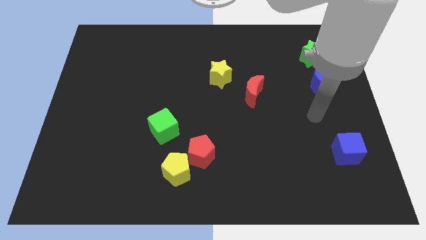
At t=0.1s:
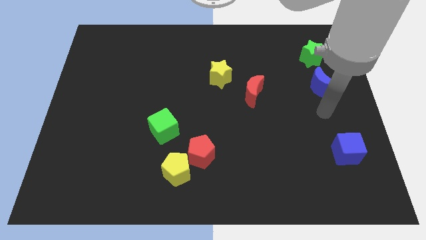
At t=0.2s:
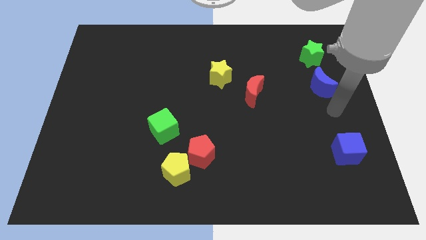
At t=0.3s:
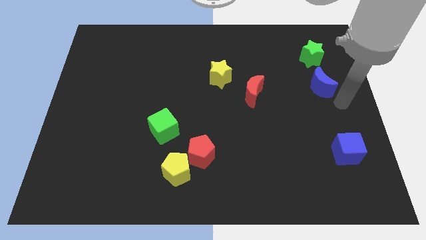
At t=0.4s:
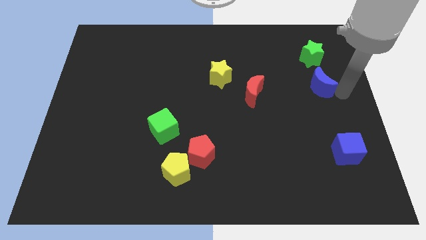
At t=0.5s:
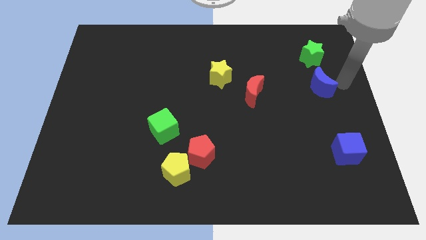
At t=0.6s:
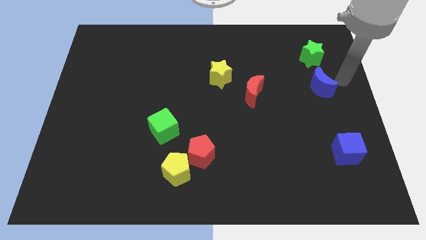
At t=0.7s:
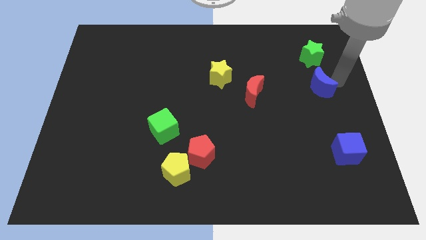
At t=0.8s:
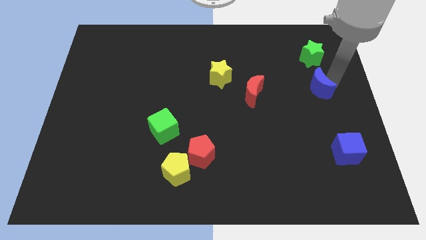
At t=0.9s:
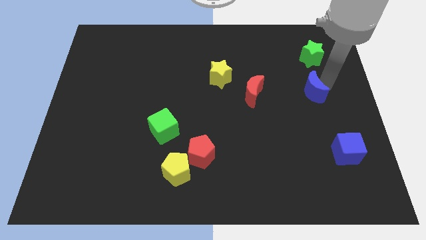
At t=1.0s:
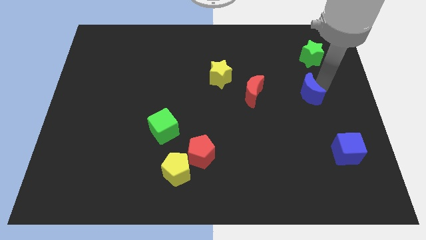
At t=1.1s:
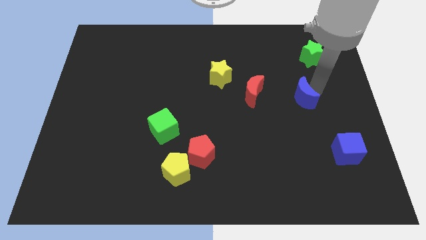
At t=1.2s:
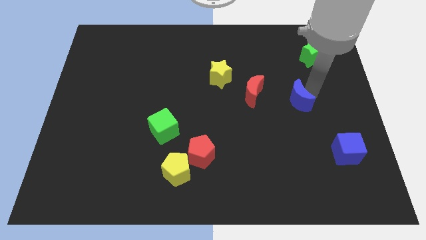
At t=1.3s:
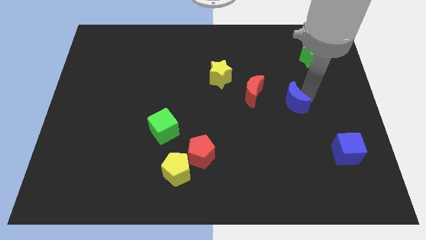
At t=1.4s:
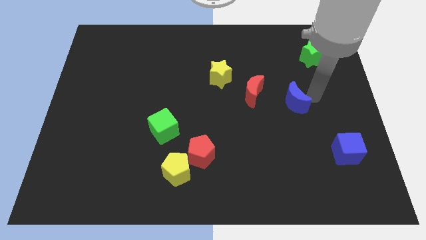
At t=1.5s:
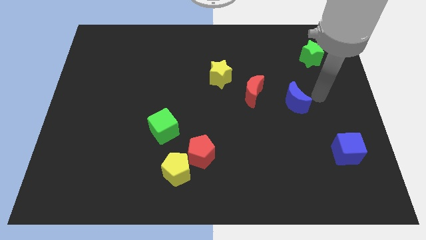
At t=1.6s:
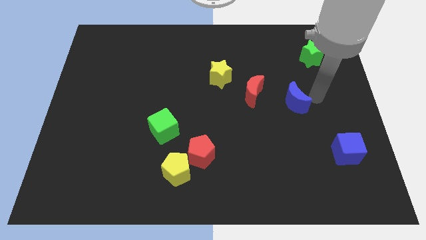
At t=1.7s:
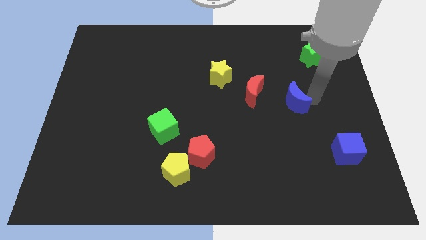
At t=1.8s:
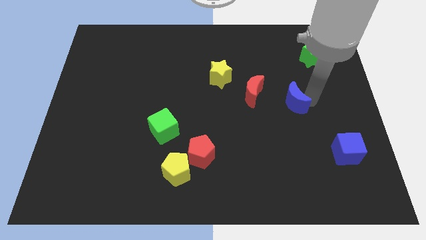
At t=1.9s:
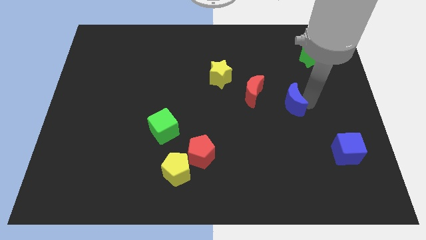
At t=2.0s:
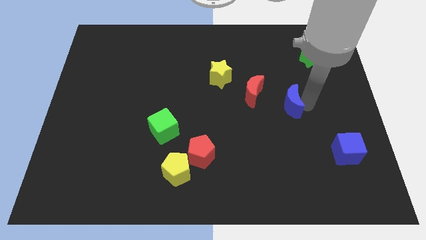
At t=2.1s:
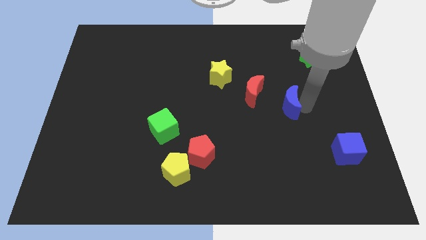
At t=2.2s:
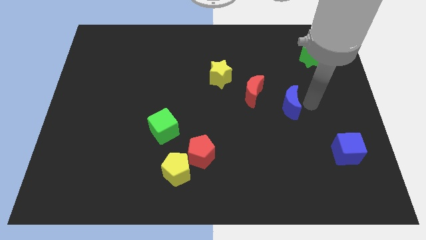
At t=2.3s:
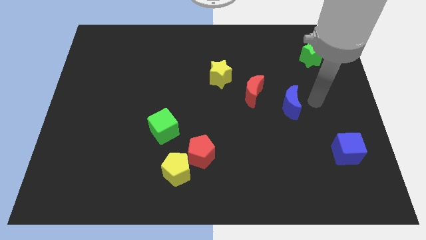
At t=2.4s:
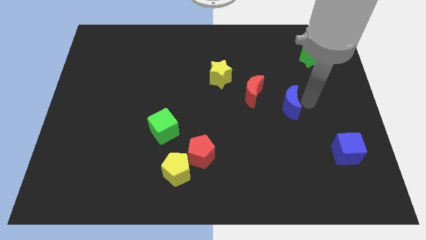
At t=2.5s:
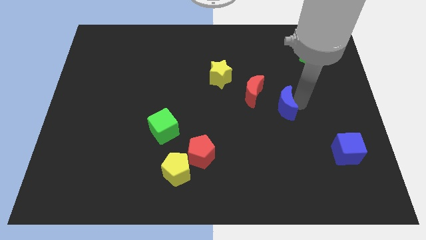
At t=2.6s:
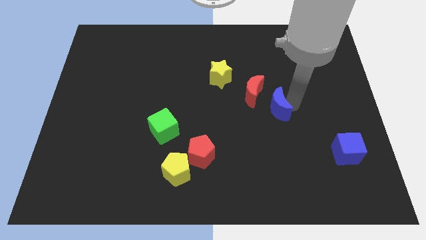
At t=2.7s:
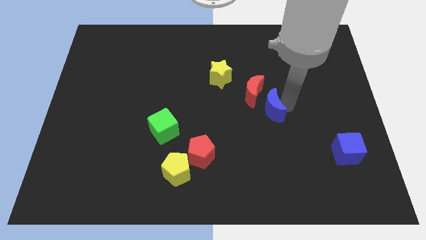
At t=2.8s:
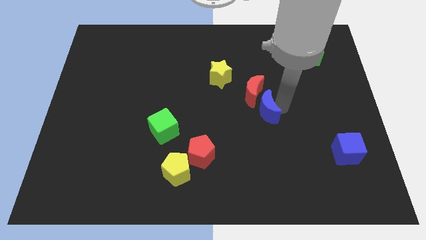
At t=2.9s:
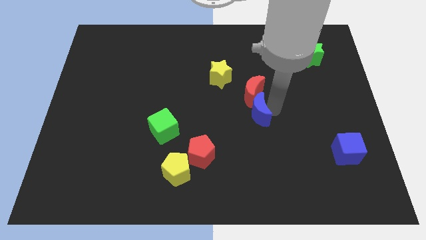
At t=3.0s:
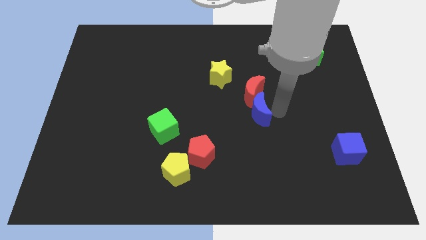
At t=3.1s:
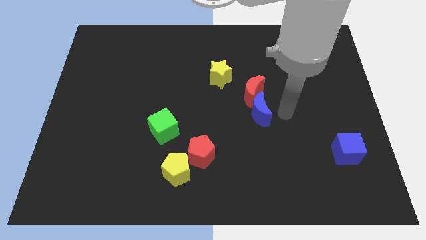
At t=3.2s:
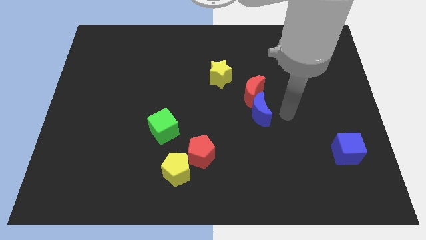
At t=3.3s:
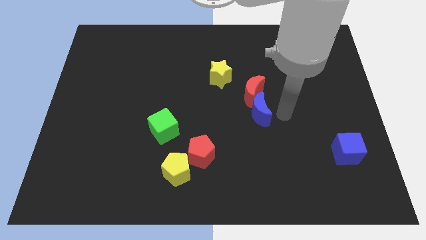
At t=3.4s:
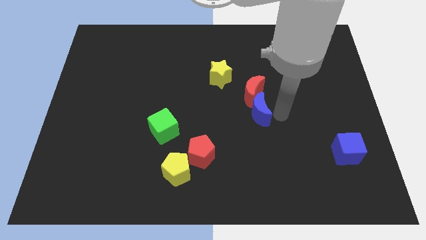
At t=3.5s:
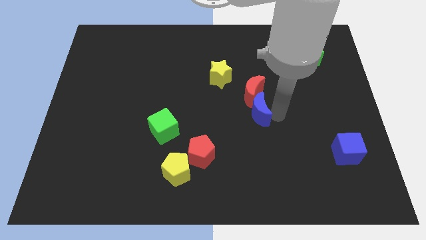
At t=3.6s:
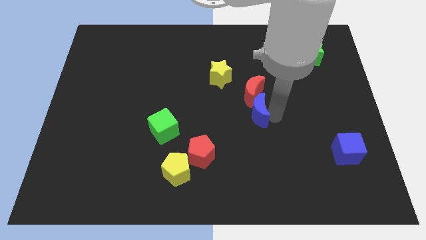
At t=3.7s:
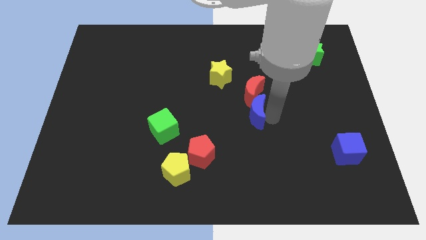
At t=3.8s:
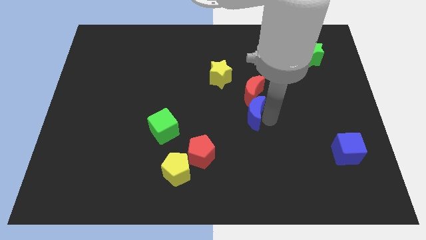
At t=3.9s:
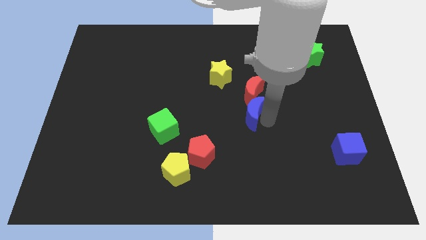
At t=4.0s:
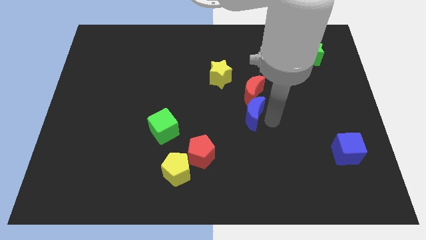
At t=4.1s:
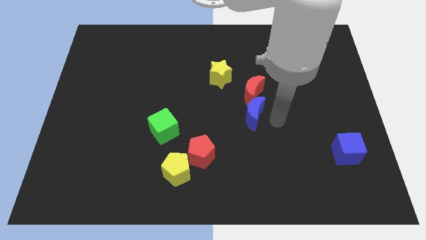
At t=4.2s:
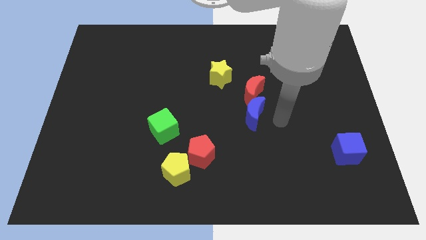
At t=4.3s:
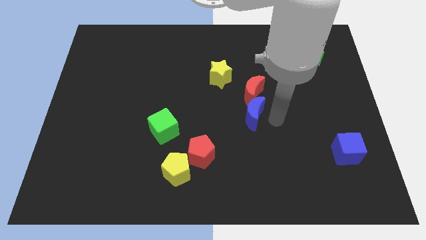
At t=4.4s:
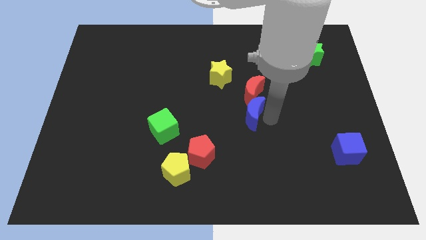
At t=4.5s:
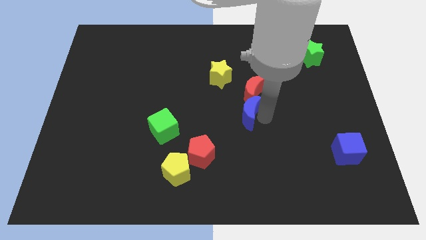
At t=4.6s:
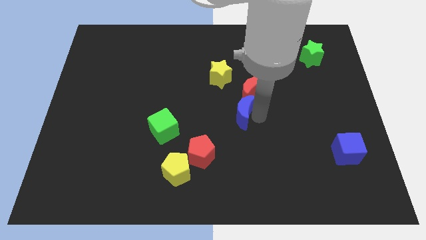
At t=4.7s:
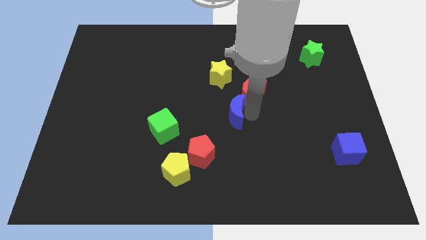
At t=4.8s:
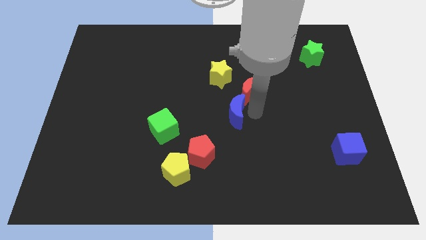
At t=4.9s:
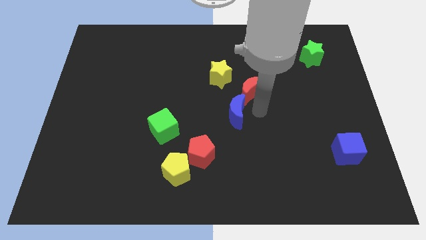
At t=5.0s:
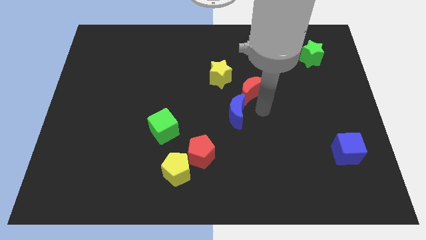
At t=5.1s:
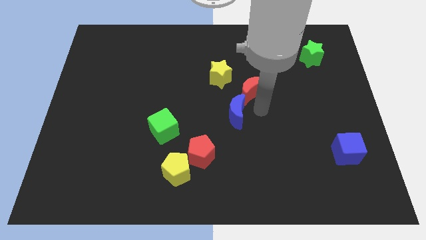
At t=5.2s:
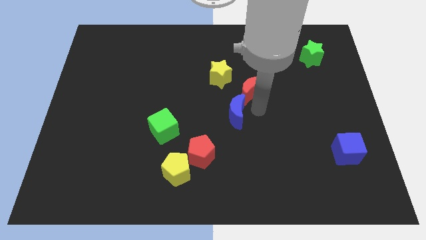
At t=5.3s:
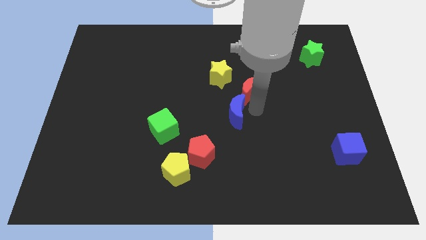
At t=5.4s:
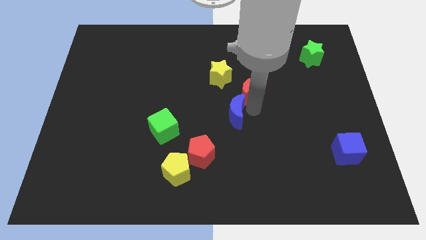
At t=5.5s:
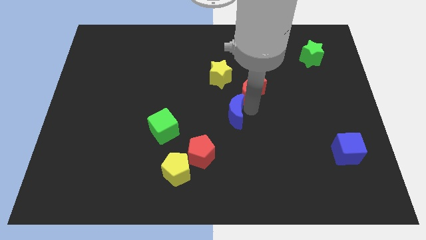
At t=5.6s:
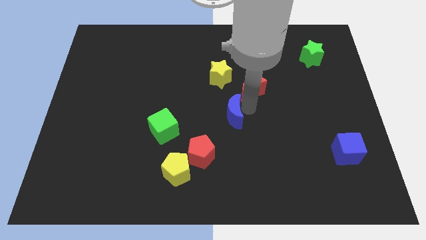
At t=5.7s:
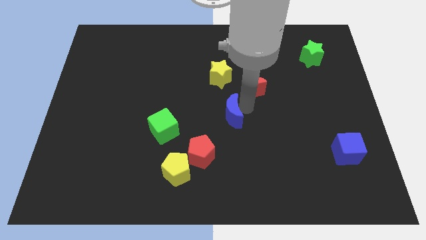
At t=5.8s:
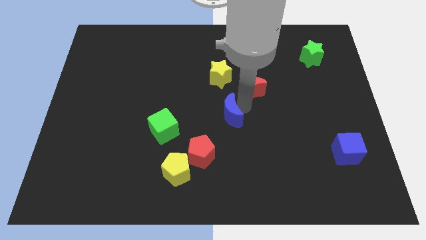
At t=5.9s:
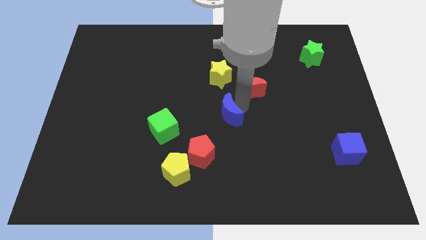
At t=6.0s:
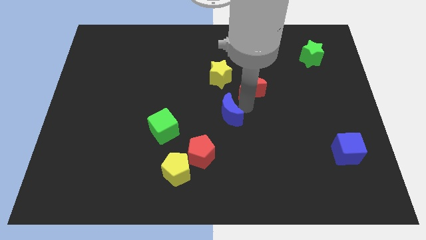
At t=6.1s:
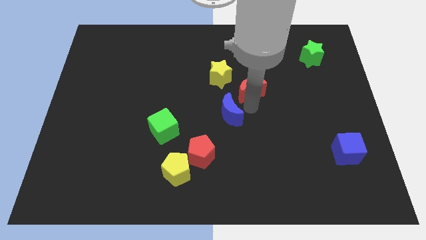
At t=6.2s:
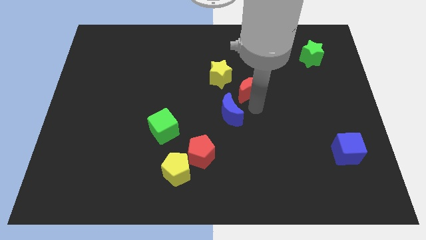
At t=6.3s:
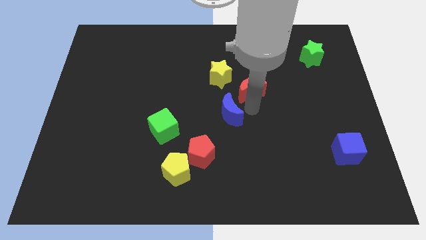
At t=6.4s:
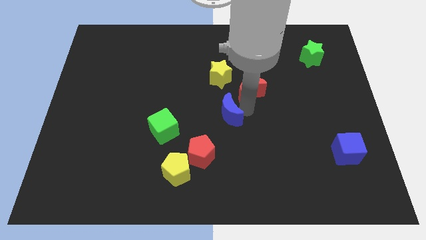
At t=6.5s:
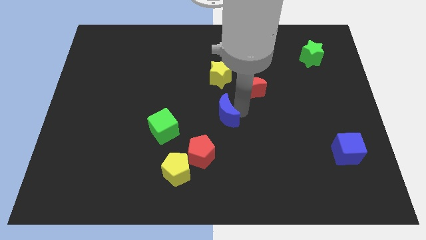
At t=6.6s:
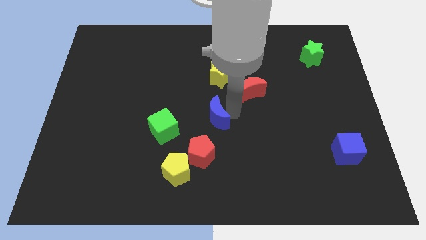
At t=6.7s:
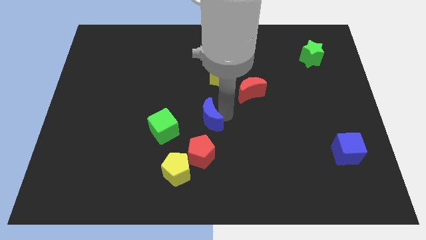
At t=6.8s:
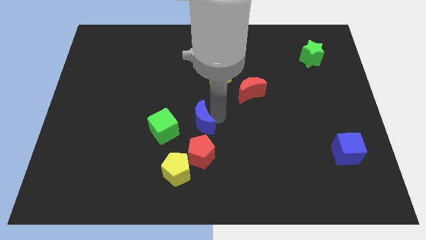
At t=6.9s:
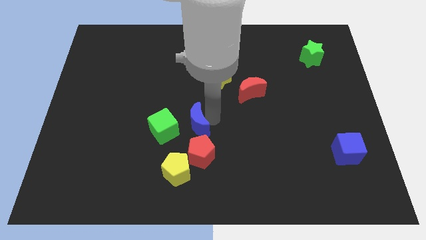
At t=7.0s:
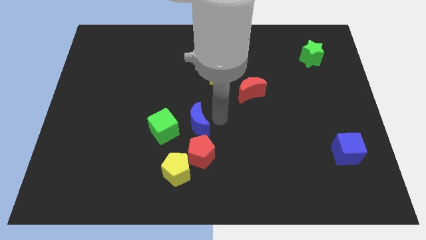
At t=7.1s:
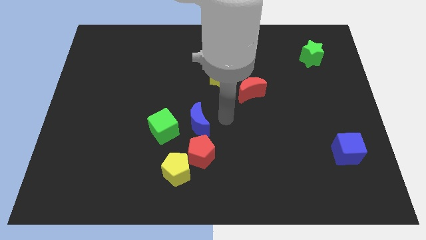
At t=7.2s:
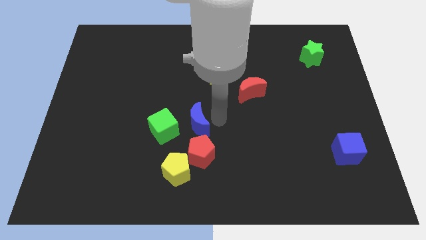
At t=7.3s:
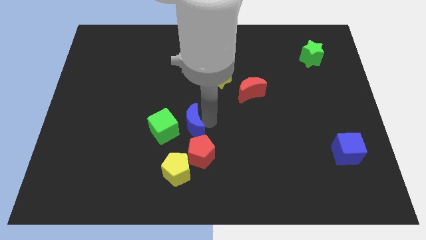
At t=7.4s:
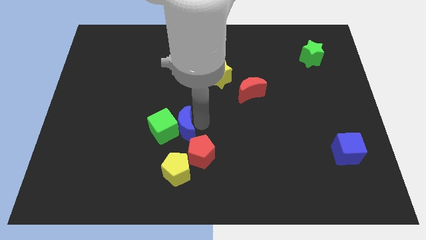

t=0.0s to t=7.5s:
slide the blue moon towards the green cube
